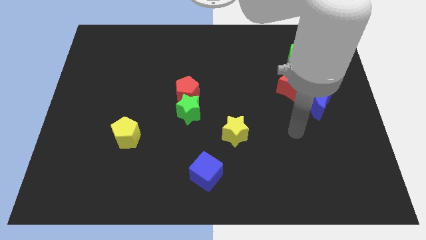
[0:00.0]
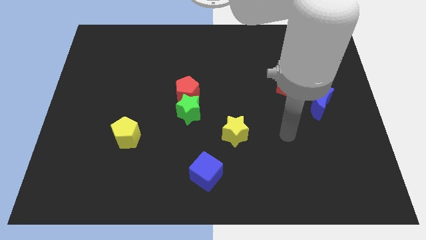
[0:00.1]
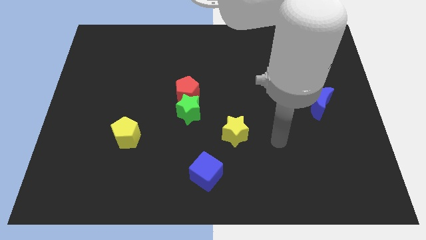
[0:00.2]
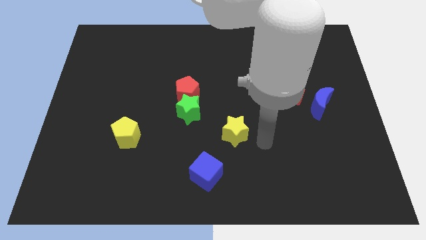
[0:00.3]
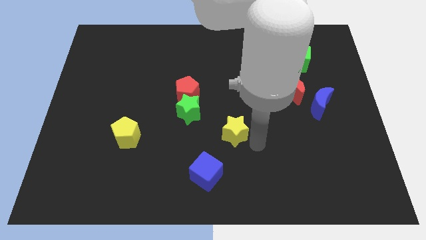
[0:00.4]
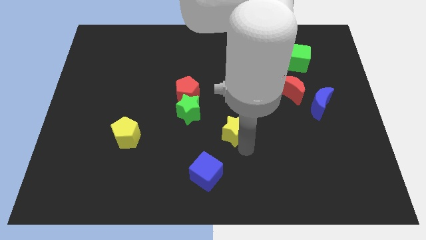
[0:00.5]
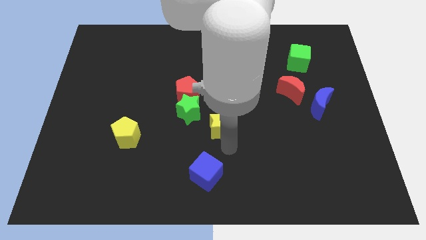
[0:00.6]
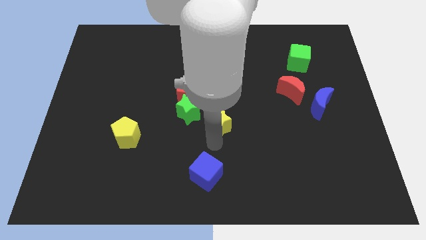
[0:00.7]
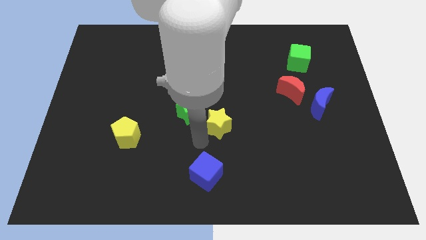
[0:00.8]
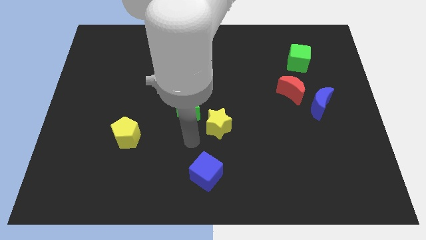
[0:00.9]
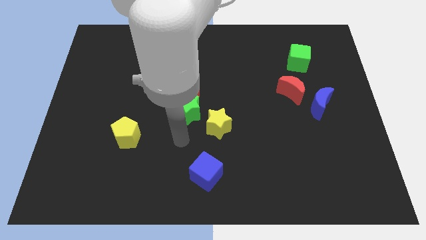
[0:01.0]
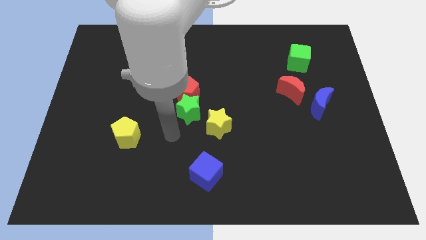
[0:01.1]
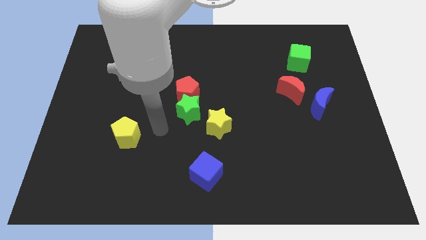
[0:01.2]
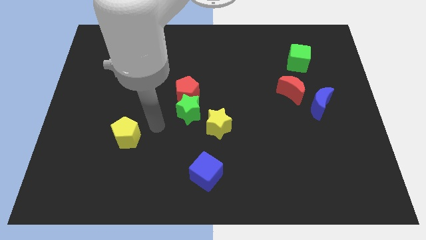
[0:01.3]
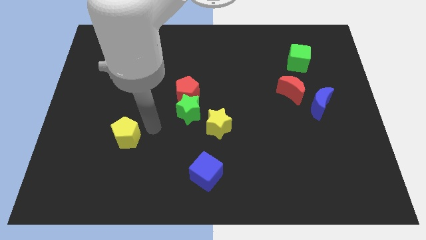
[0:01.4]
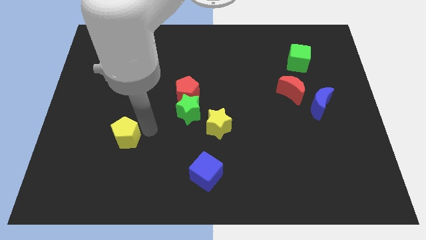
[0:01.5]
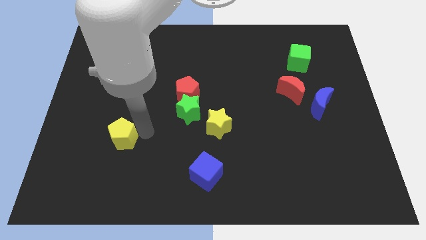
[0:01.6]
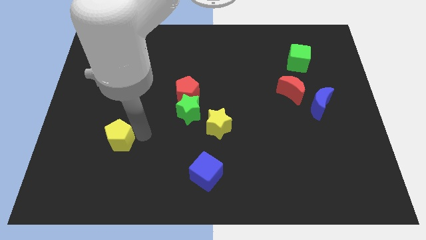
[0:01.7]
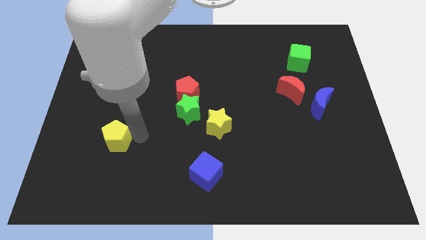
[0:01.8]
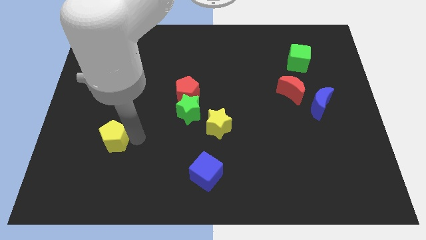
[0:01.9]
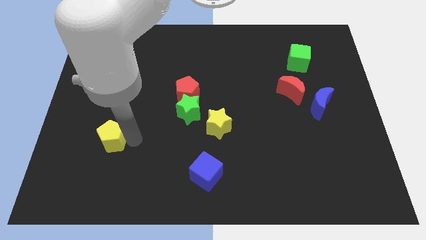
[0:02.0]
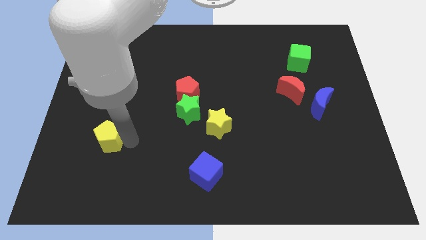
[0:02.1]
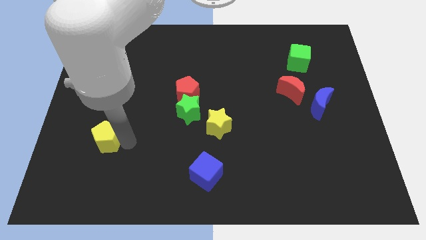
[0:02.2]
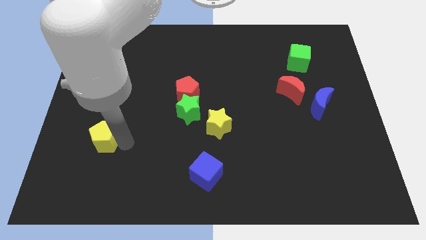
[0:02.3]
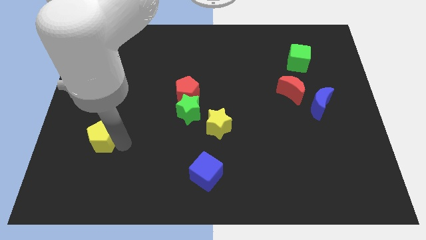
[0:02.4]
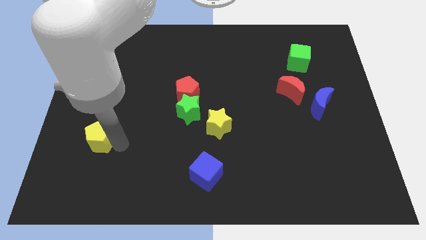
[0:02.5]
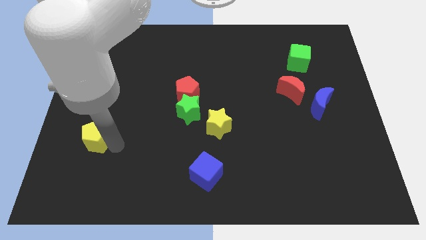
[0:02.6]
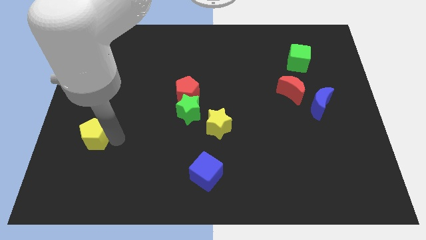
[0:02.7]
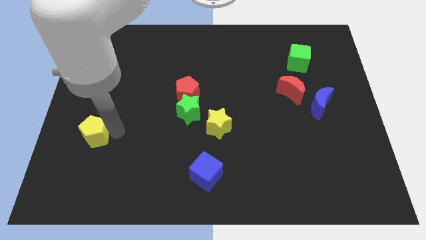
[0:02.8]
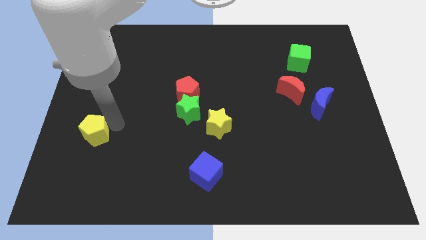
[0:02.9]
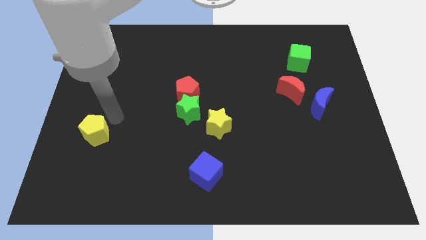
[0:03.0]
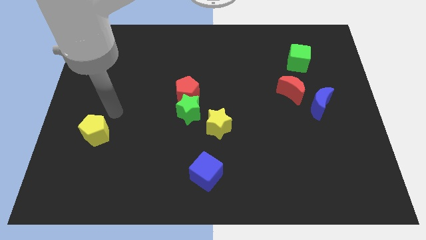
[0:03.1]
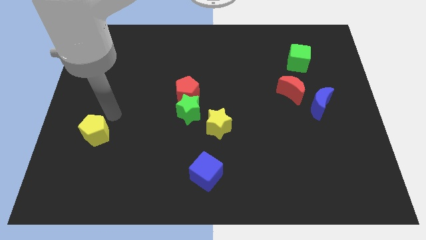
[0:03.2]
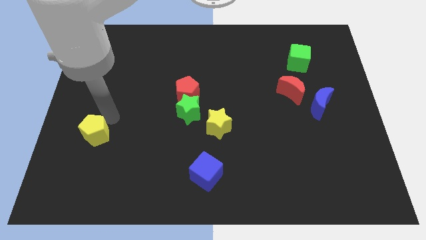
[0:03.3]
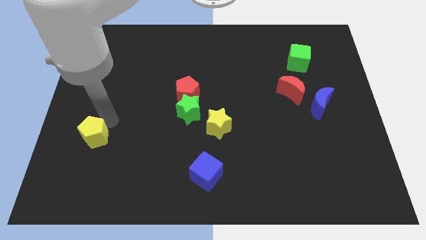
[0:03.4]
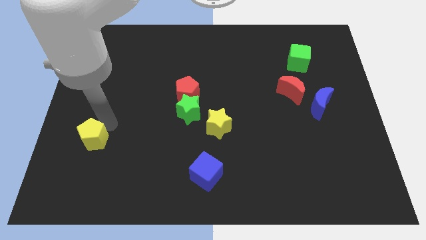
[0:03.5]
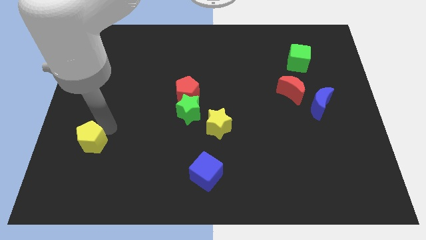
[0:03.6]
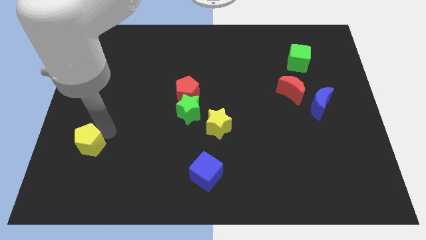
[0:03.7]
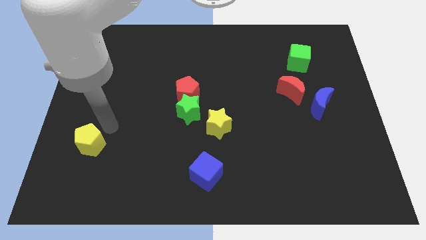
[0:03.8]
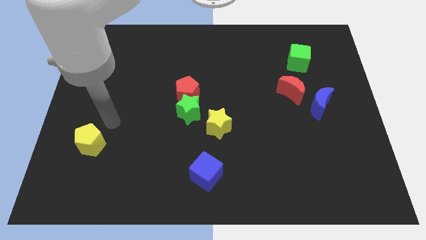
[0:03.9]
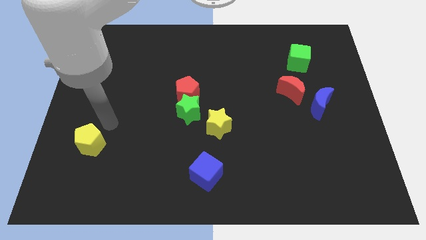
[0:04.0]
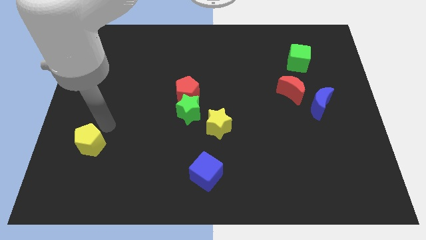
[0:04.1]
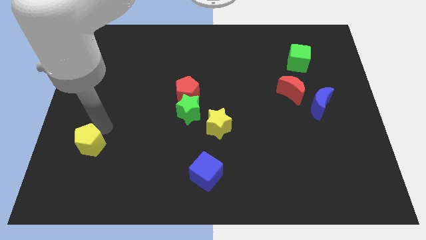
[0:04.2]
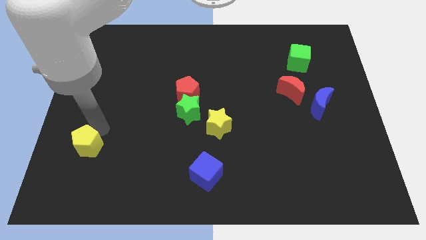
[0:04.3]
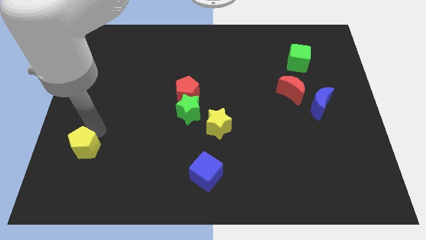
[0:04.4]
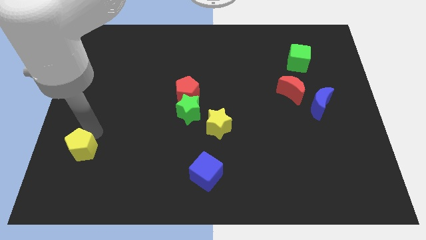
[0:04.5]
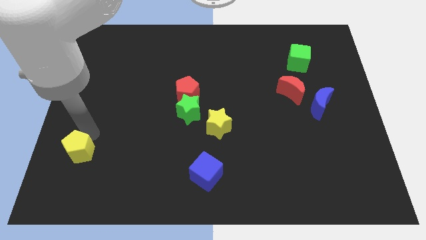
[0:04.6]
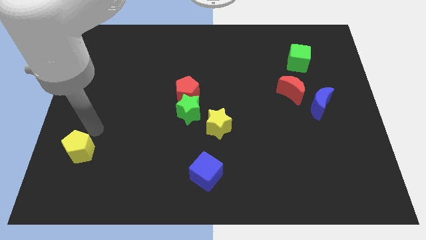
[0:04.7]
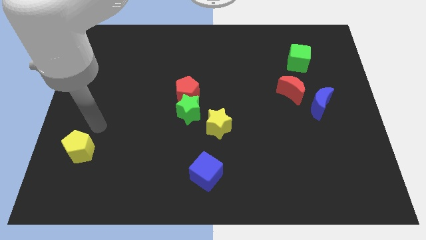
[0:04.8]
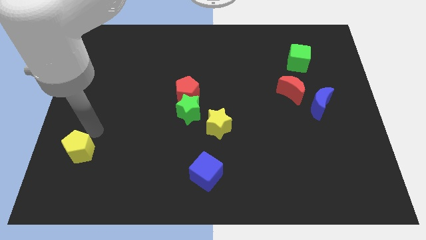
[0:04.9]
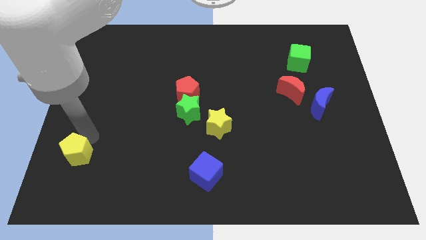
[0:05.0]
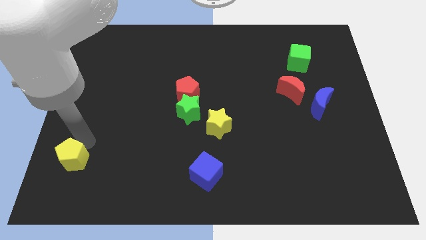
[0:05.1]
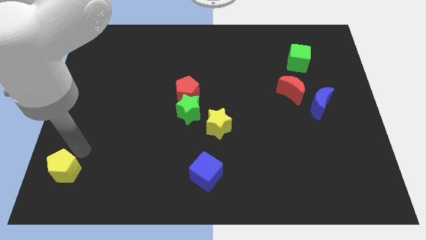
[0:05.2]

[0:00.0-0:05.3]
push the yellow pentagon to the bottom left

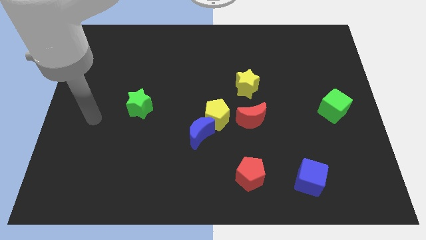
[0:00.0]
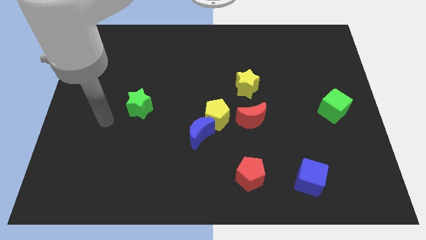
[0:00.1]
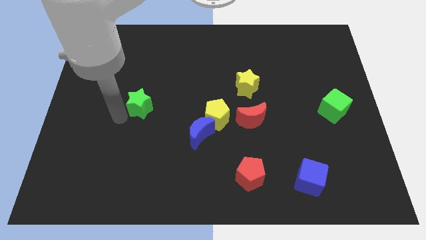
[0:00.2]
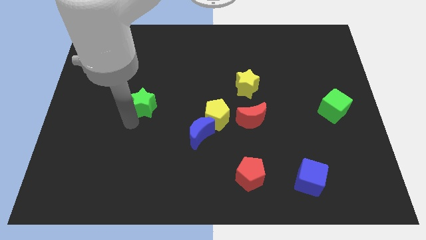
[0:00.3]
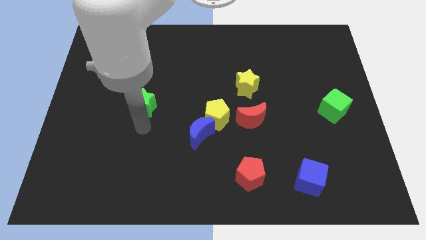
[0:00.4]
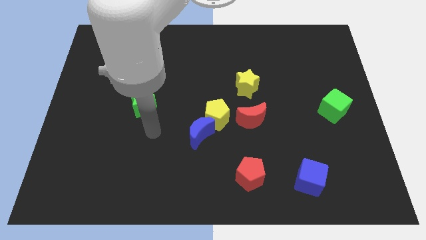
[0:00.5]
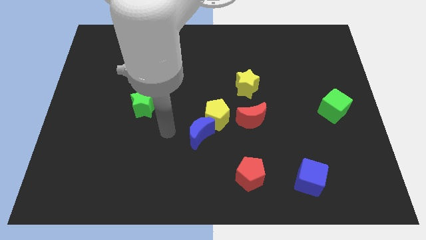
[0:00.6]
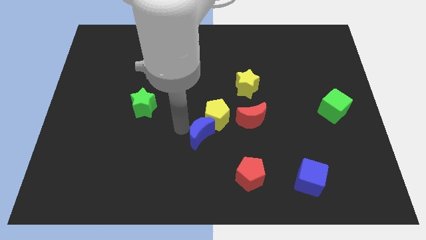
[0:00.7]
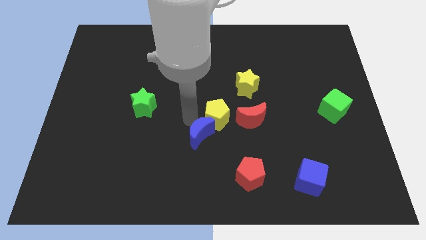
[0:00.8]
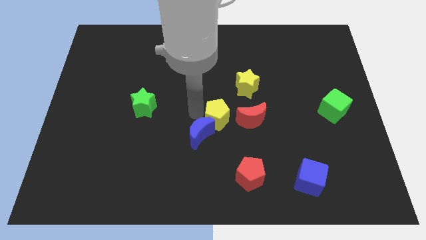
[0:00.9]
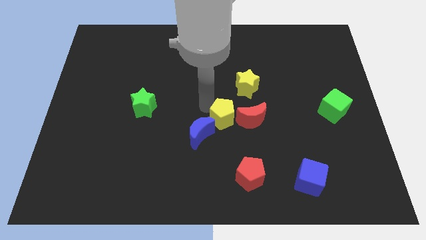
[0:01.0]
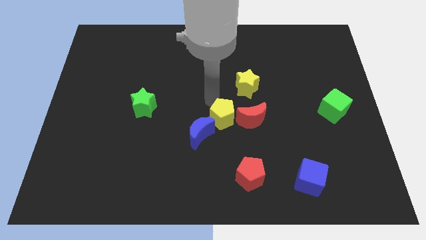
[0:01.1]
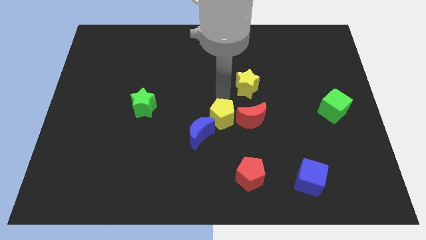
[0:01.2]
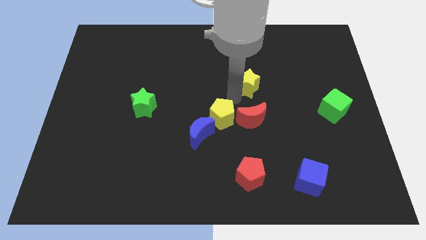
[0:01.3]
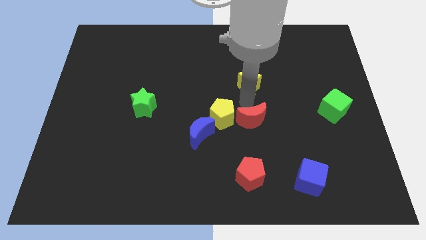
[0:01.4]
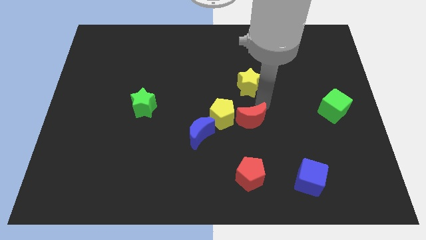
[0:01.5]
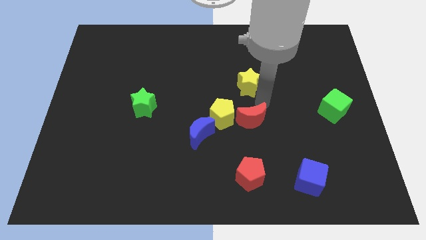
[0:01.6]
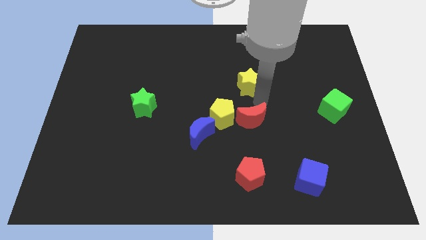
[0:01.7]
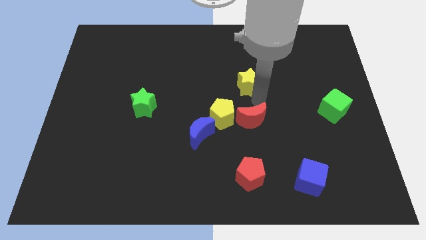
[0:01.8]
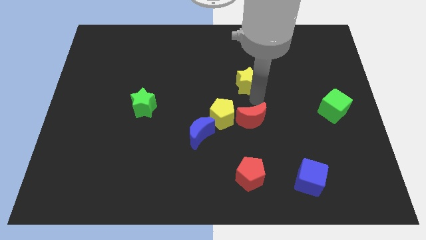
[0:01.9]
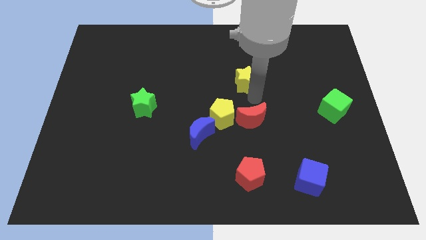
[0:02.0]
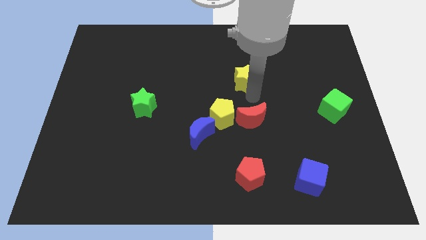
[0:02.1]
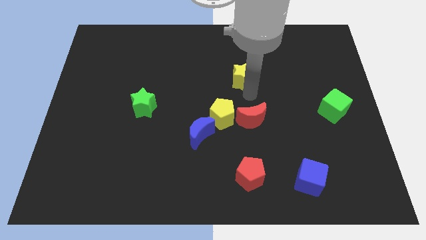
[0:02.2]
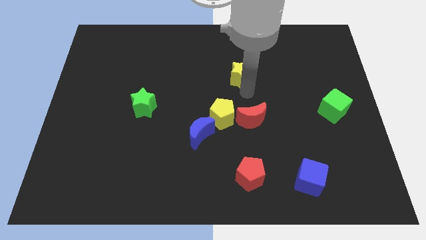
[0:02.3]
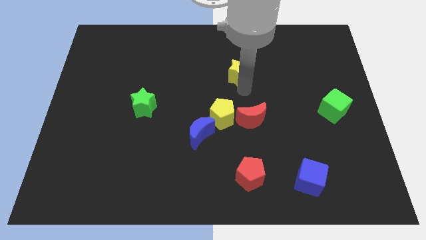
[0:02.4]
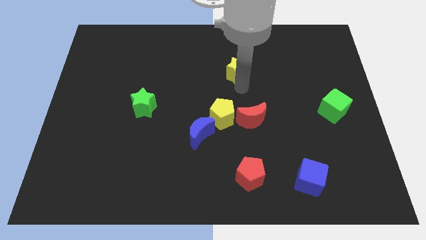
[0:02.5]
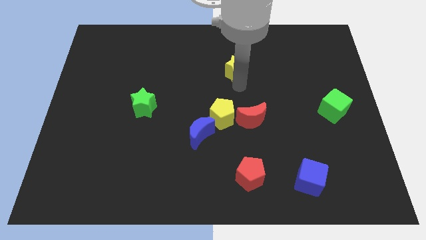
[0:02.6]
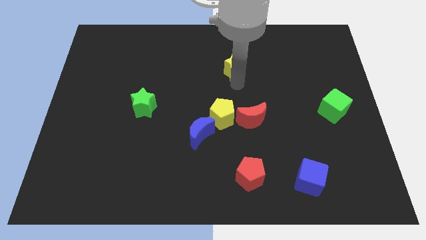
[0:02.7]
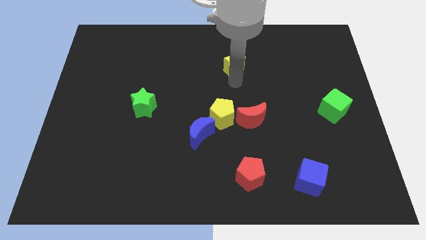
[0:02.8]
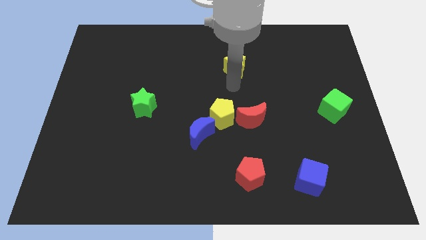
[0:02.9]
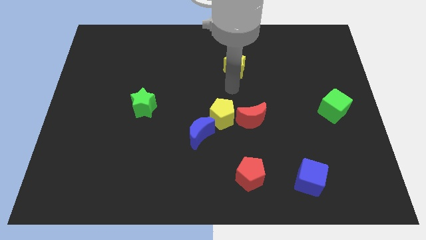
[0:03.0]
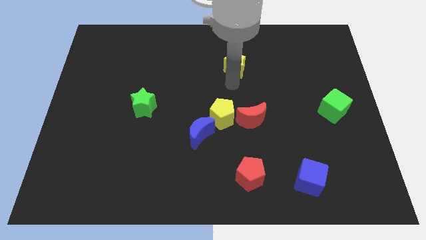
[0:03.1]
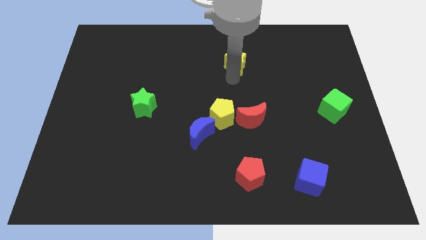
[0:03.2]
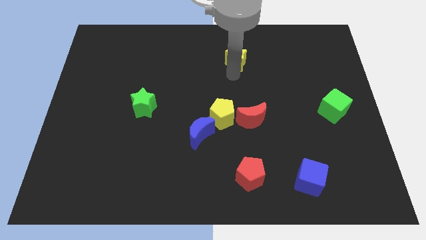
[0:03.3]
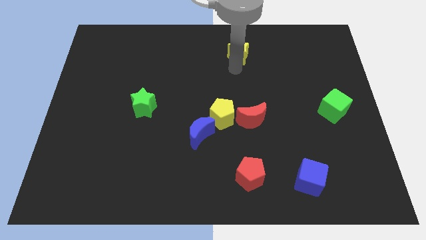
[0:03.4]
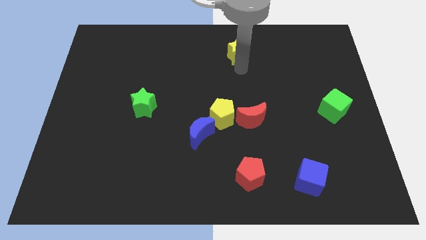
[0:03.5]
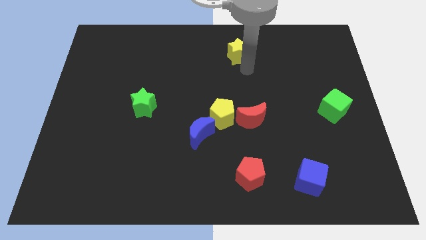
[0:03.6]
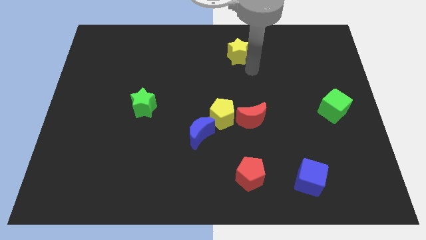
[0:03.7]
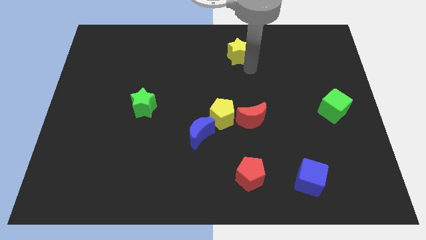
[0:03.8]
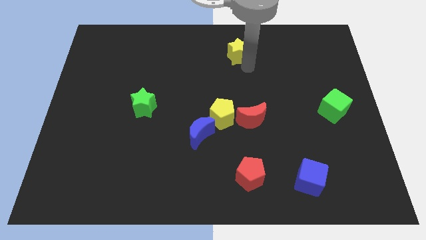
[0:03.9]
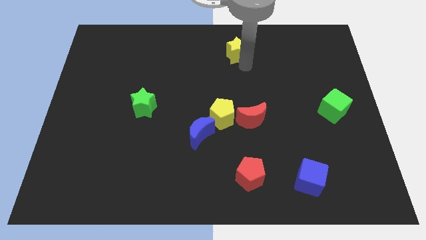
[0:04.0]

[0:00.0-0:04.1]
push the yellow star to the top side
